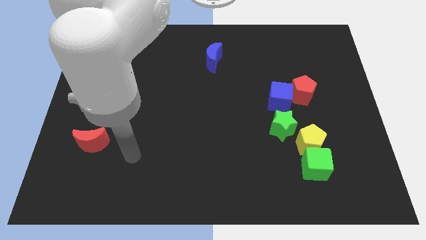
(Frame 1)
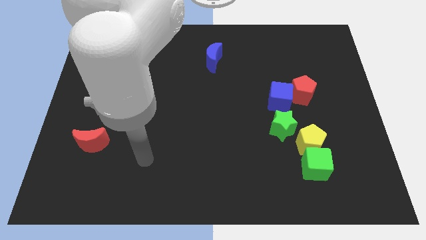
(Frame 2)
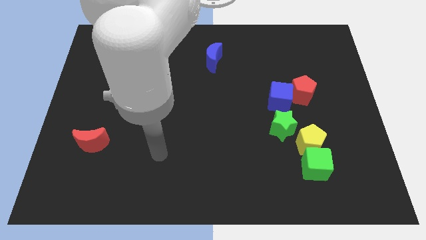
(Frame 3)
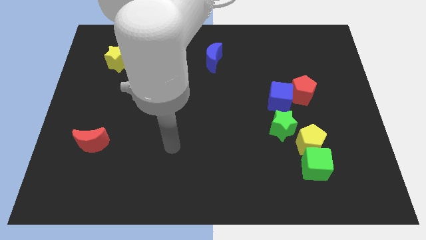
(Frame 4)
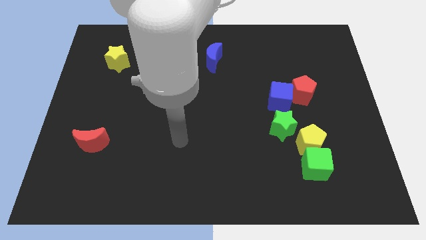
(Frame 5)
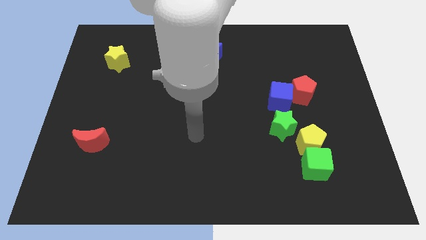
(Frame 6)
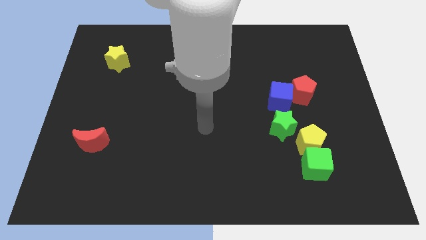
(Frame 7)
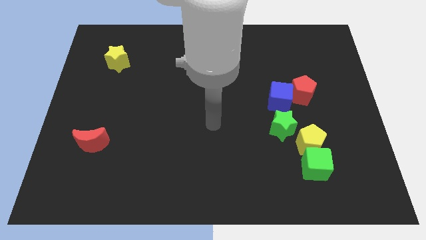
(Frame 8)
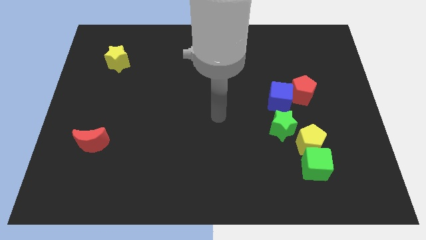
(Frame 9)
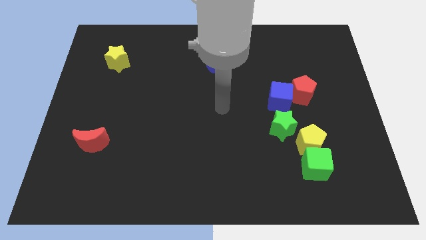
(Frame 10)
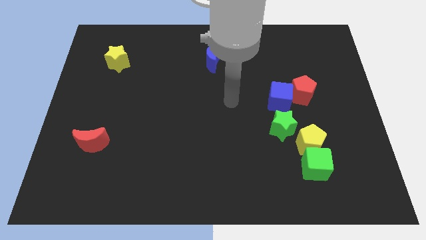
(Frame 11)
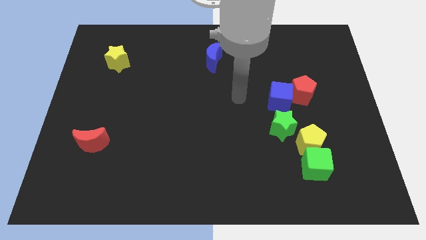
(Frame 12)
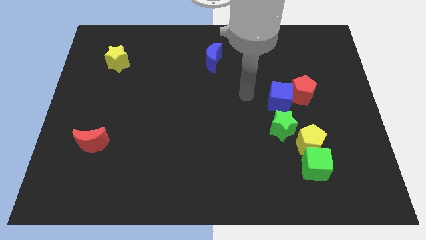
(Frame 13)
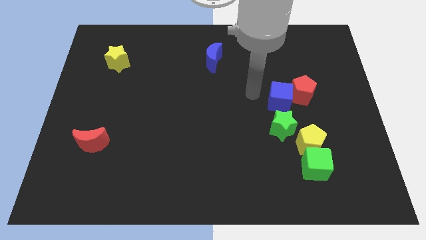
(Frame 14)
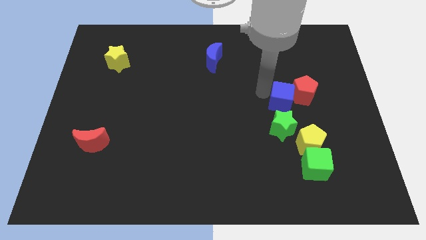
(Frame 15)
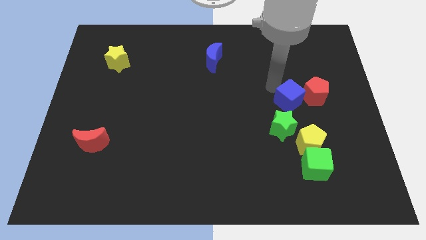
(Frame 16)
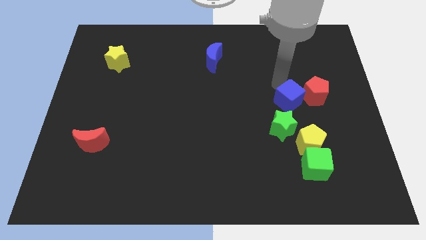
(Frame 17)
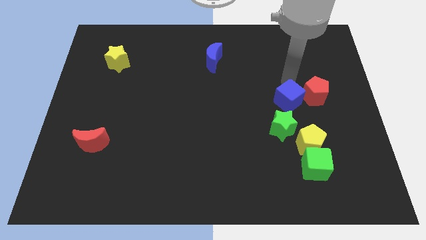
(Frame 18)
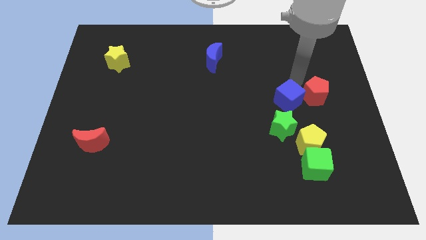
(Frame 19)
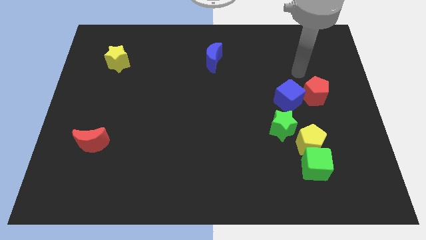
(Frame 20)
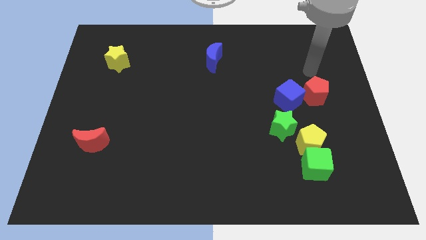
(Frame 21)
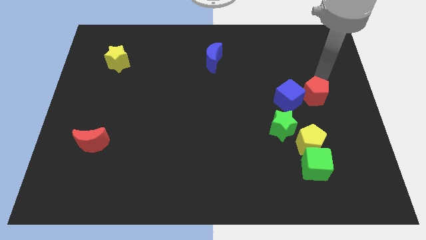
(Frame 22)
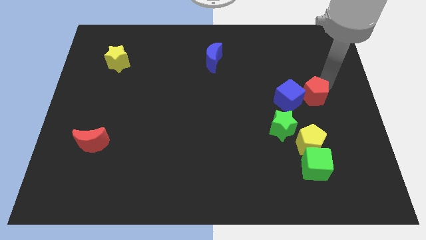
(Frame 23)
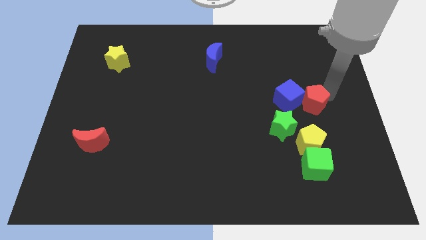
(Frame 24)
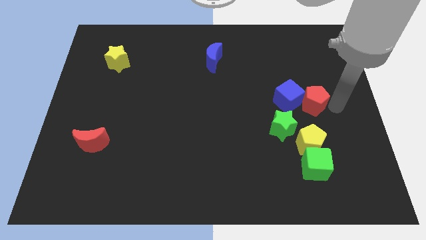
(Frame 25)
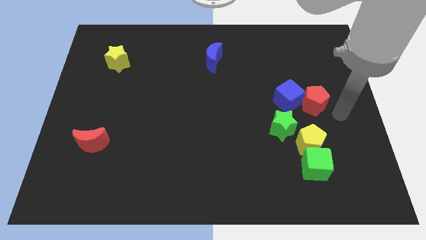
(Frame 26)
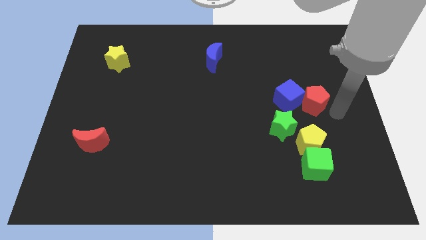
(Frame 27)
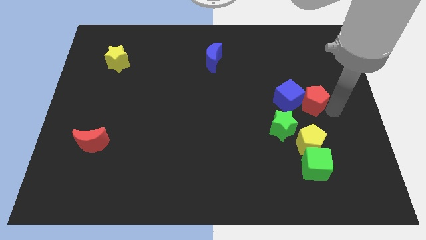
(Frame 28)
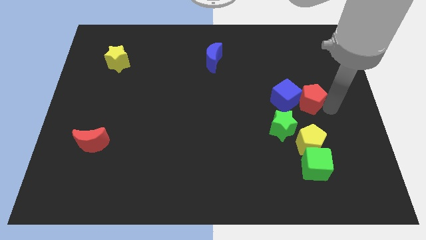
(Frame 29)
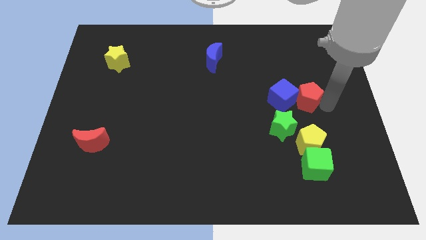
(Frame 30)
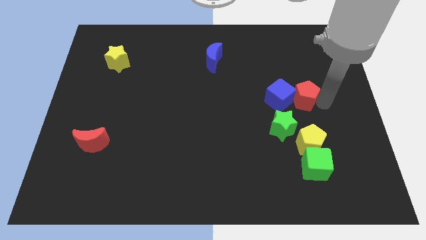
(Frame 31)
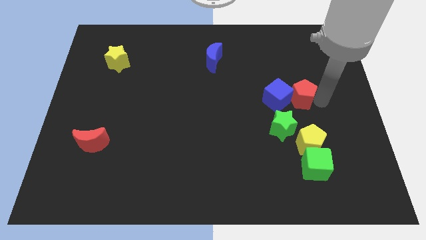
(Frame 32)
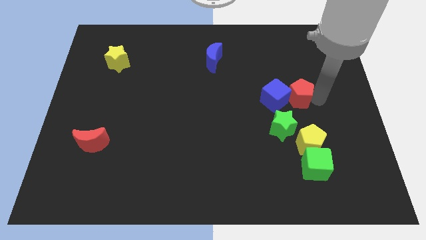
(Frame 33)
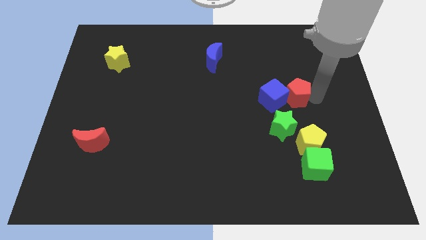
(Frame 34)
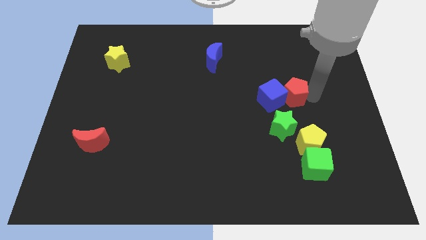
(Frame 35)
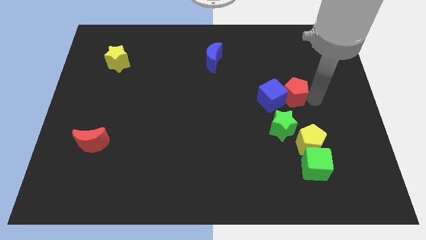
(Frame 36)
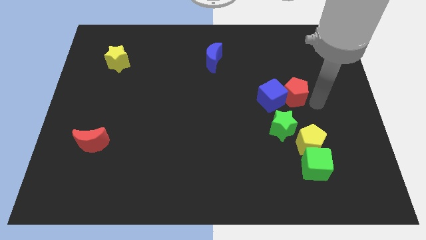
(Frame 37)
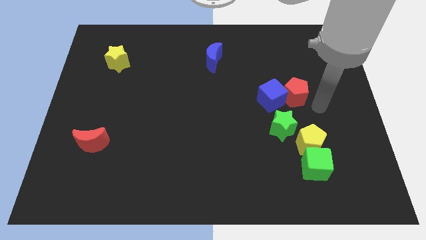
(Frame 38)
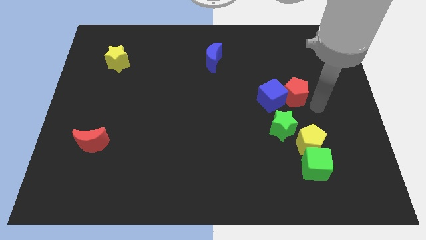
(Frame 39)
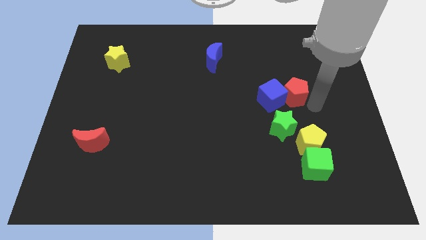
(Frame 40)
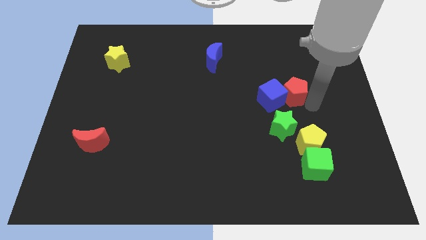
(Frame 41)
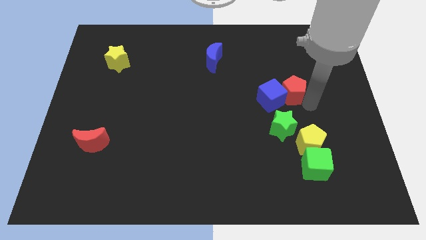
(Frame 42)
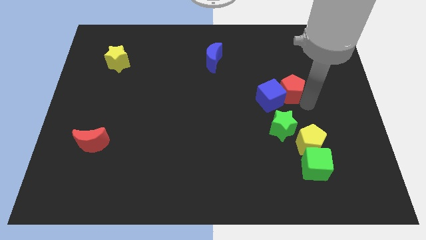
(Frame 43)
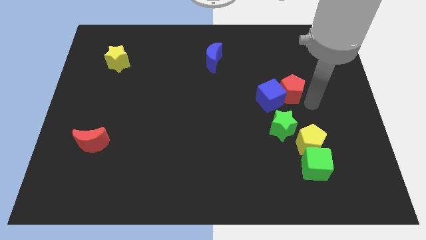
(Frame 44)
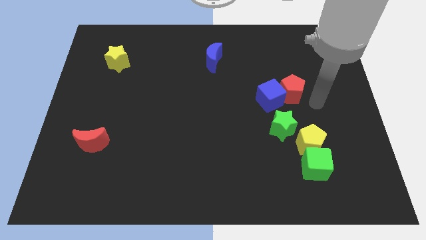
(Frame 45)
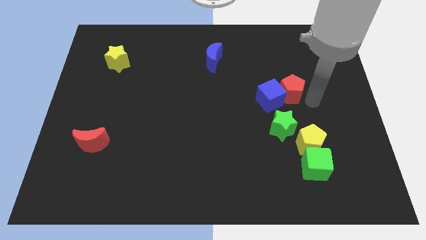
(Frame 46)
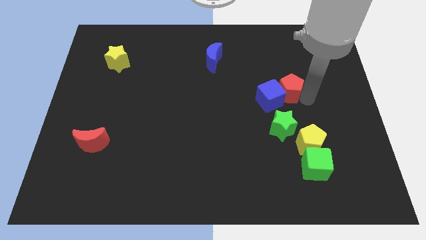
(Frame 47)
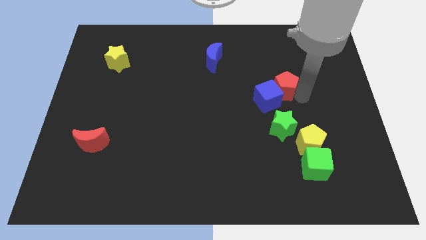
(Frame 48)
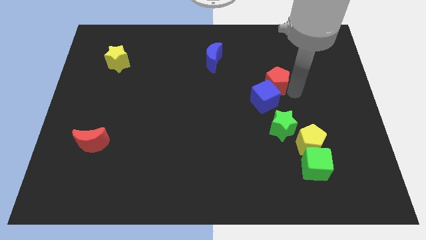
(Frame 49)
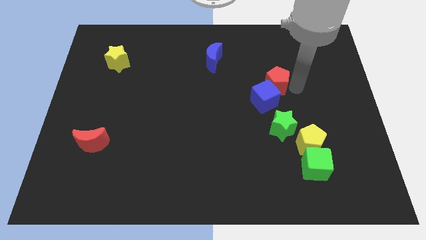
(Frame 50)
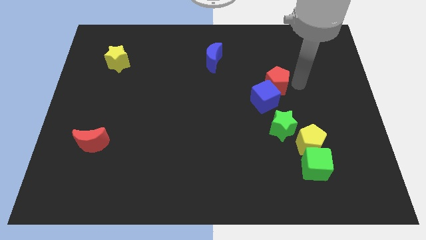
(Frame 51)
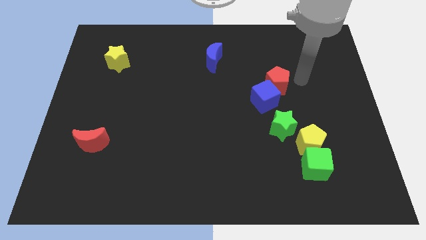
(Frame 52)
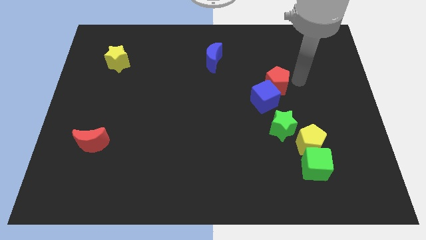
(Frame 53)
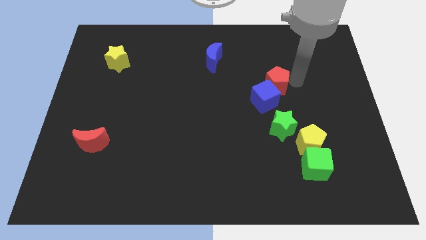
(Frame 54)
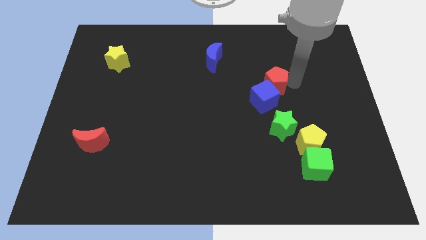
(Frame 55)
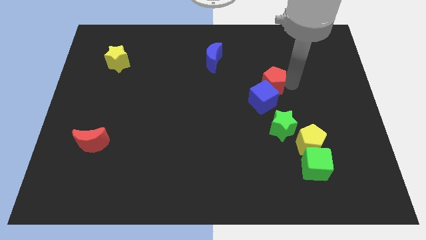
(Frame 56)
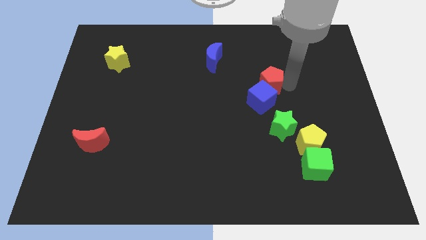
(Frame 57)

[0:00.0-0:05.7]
slightly slide the red pentagon to the left

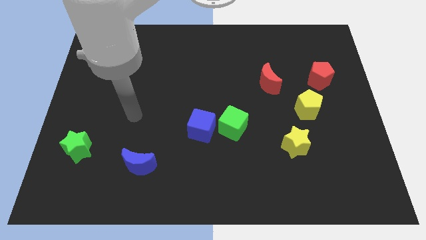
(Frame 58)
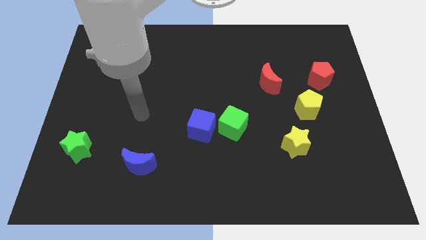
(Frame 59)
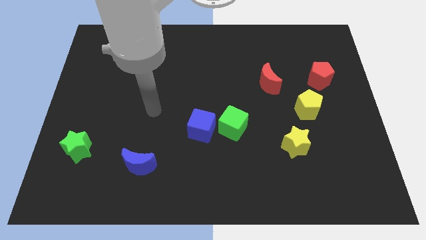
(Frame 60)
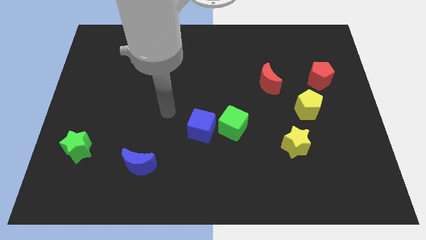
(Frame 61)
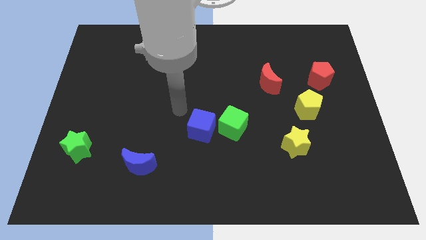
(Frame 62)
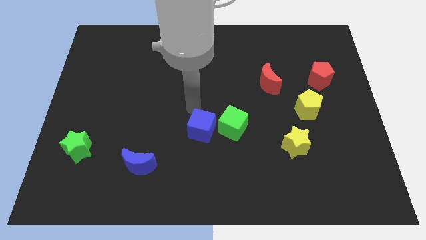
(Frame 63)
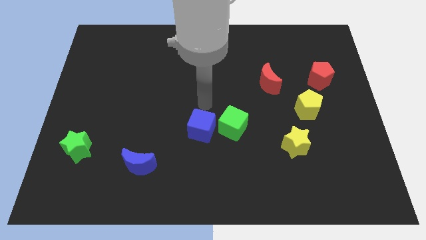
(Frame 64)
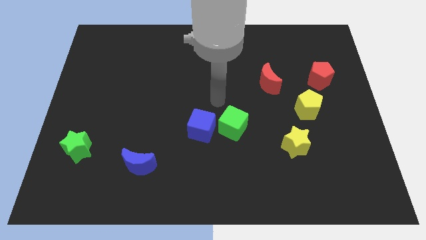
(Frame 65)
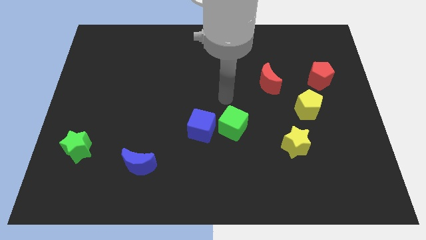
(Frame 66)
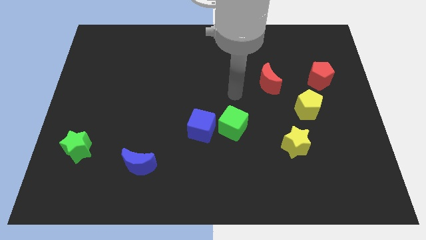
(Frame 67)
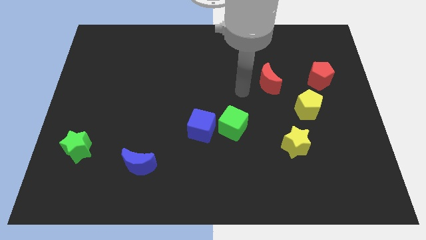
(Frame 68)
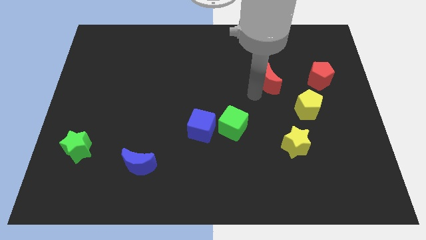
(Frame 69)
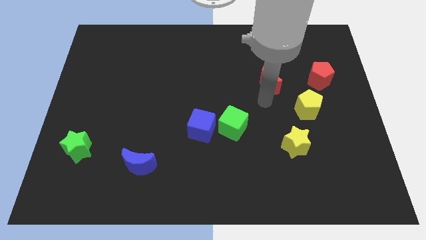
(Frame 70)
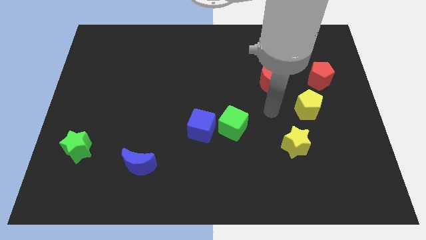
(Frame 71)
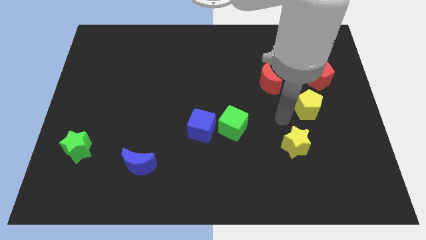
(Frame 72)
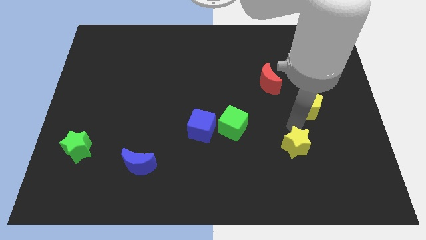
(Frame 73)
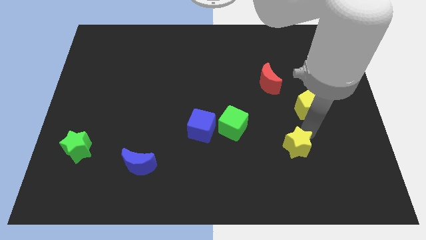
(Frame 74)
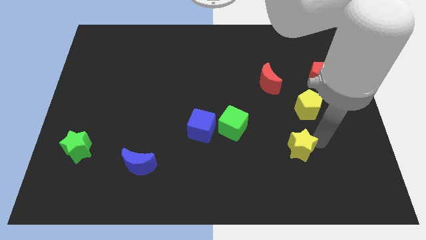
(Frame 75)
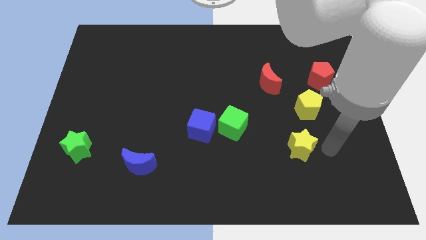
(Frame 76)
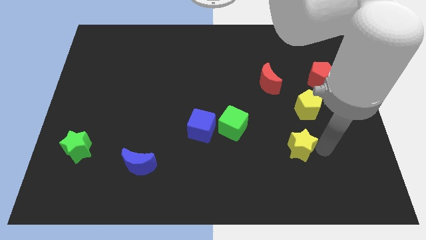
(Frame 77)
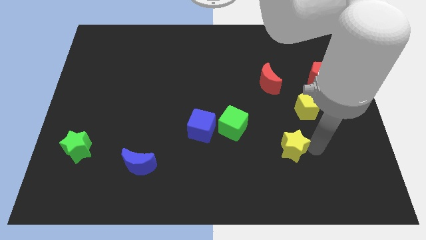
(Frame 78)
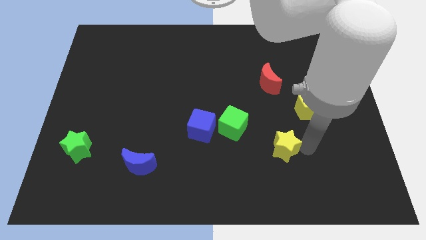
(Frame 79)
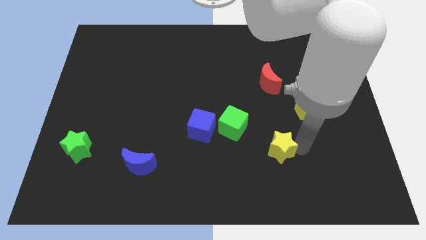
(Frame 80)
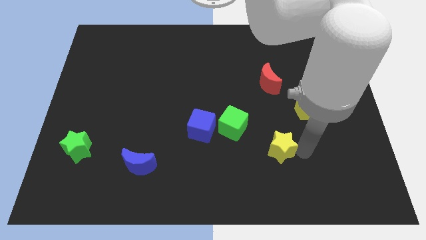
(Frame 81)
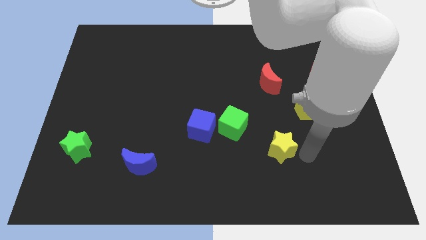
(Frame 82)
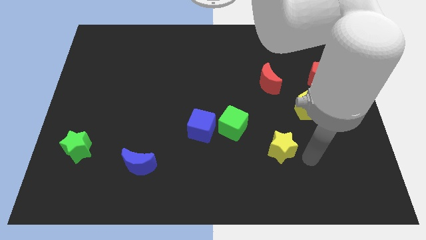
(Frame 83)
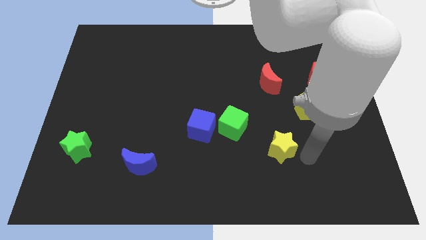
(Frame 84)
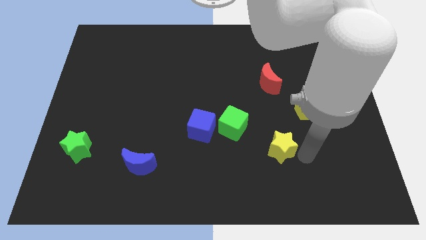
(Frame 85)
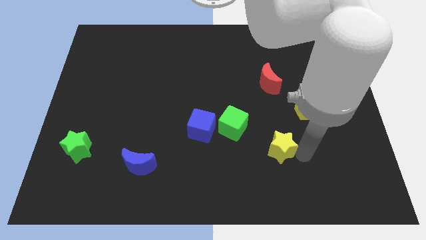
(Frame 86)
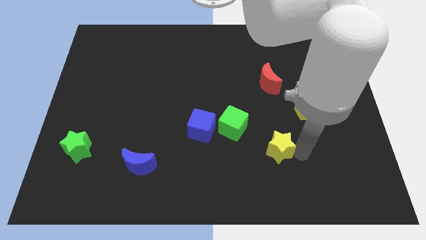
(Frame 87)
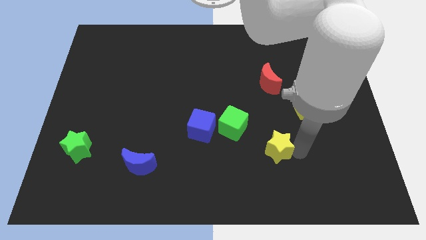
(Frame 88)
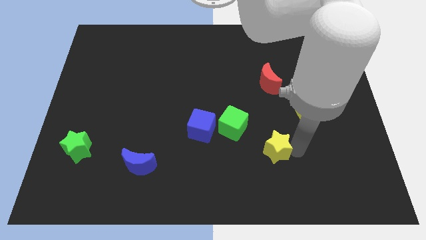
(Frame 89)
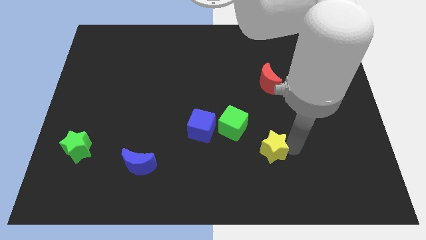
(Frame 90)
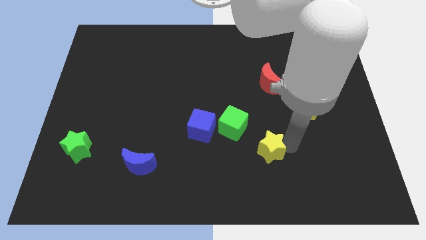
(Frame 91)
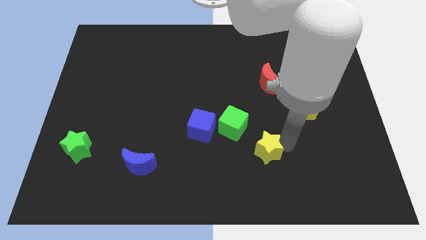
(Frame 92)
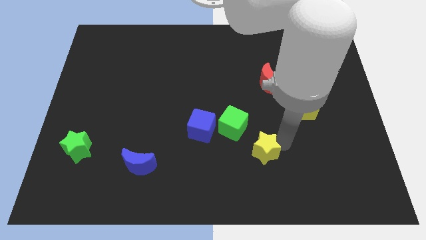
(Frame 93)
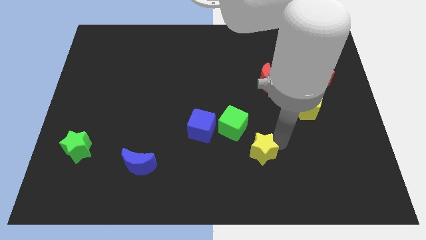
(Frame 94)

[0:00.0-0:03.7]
push the yellow star left slightly
